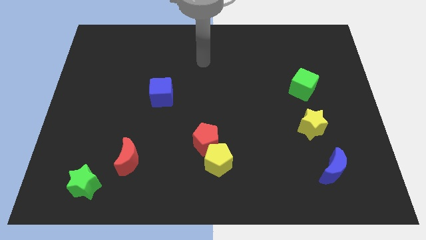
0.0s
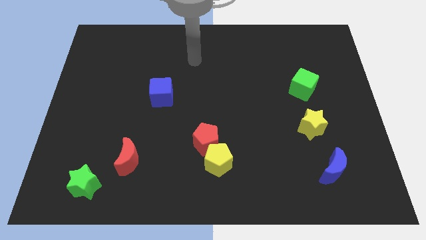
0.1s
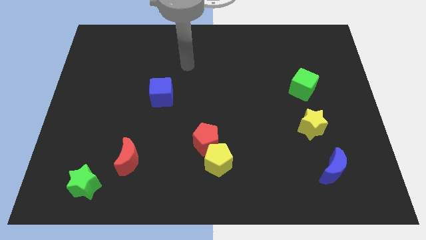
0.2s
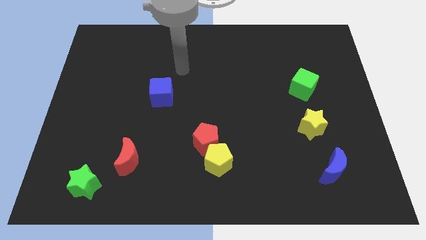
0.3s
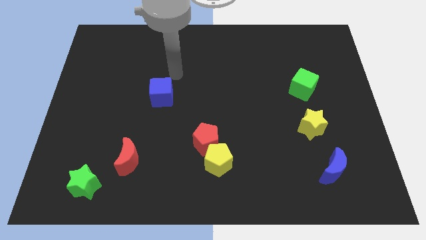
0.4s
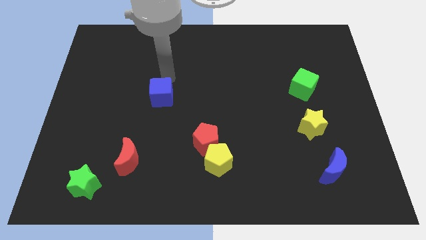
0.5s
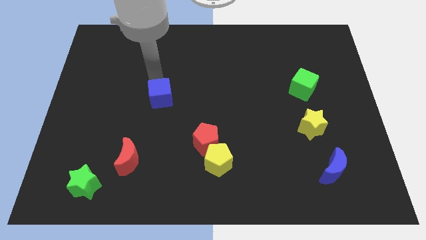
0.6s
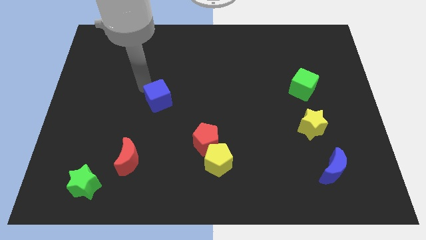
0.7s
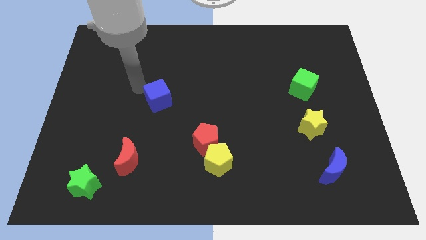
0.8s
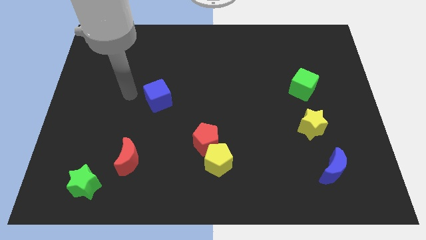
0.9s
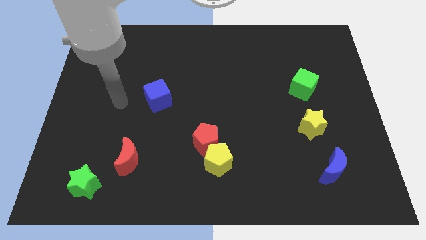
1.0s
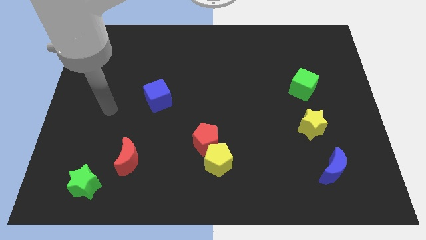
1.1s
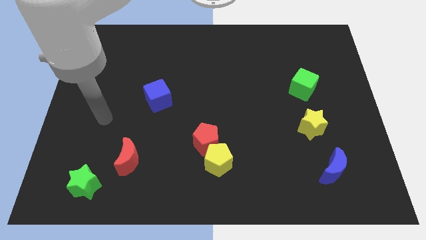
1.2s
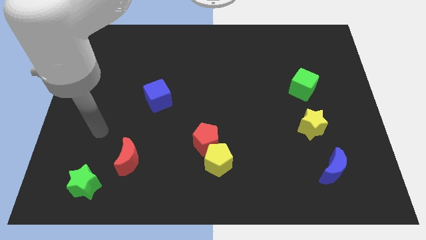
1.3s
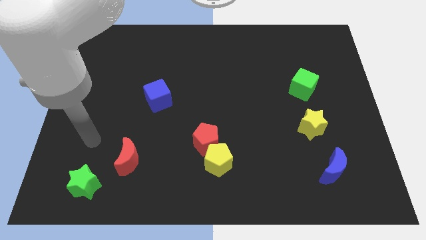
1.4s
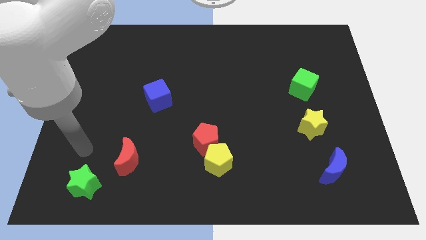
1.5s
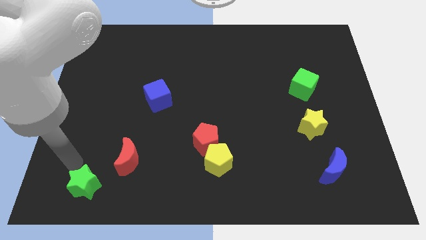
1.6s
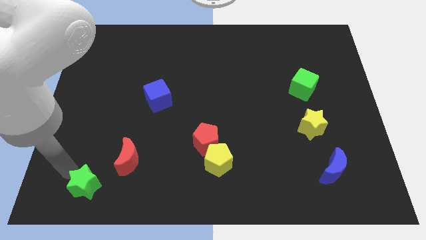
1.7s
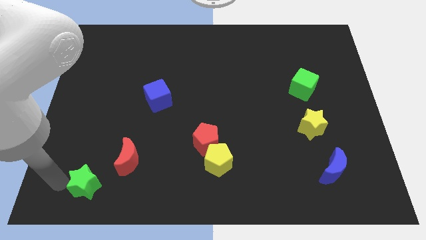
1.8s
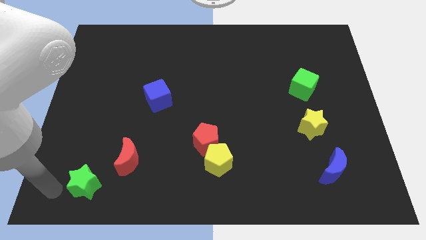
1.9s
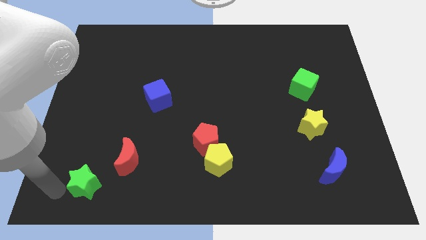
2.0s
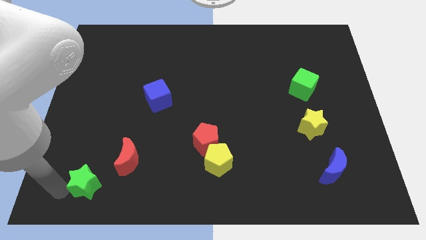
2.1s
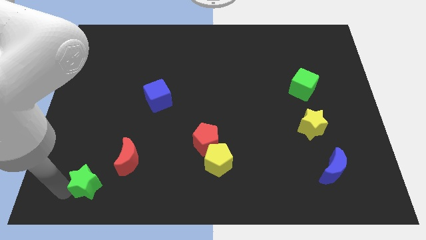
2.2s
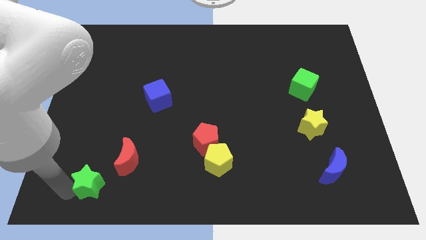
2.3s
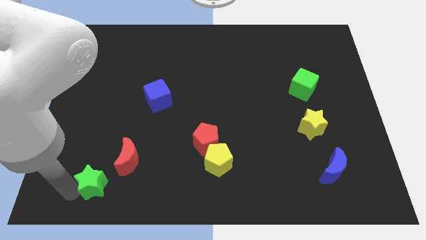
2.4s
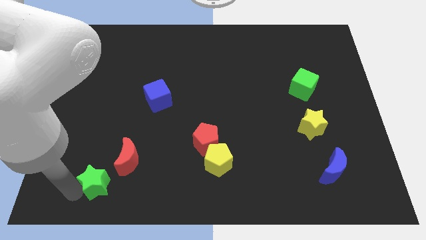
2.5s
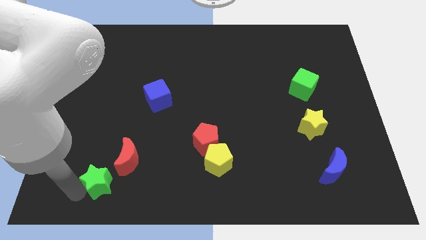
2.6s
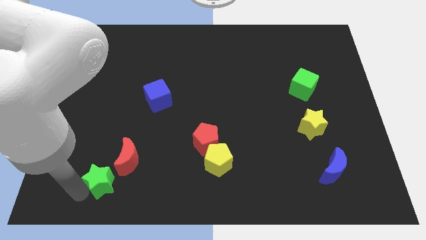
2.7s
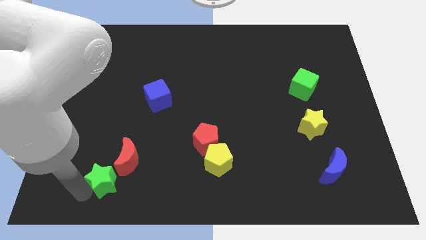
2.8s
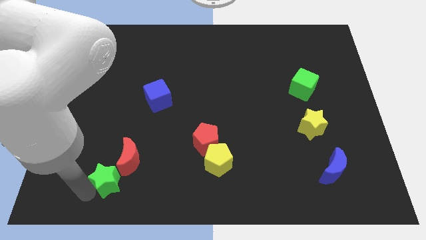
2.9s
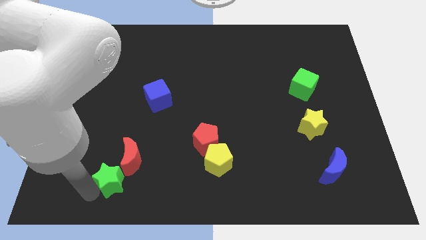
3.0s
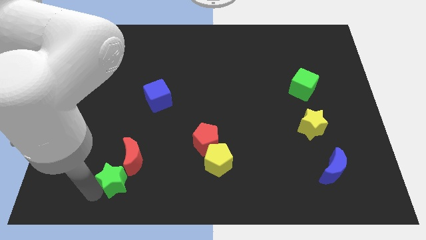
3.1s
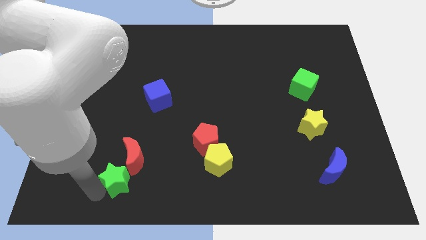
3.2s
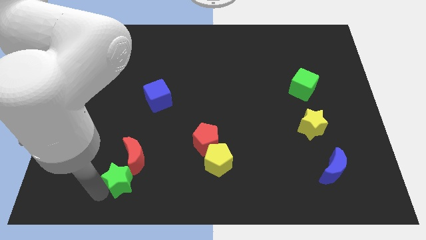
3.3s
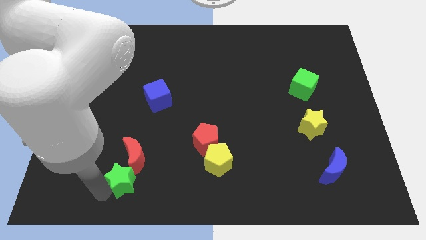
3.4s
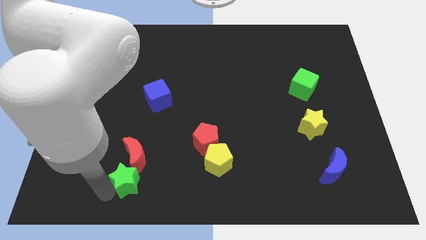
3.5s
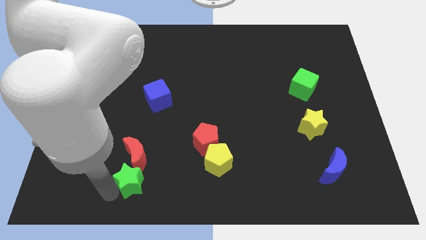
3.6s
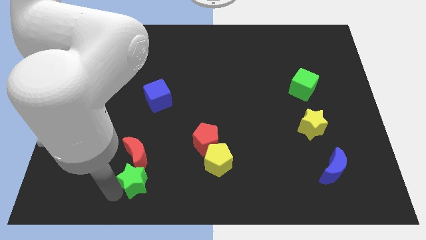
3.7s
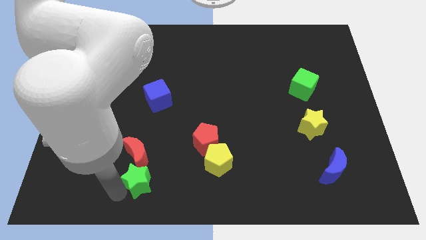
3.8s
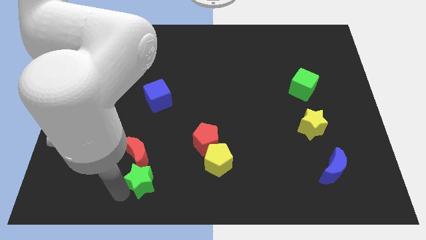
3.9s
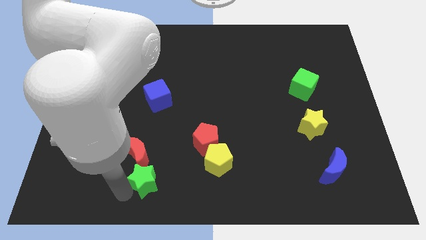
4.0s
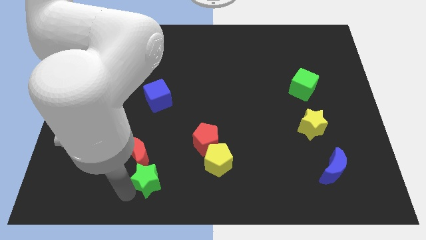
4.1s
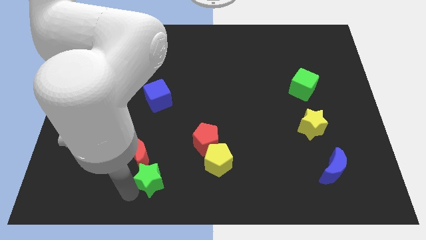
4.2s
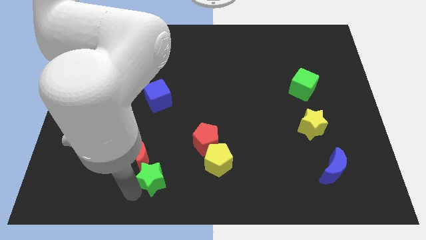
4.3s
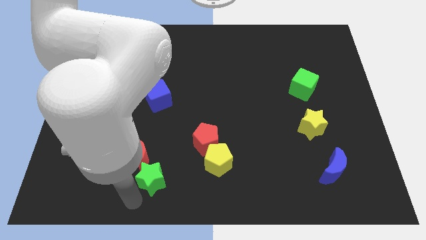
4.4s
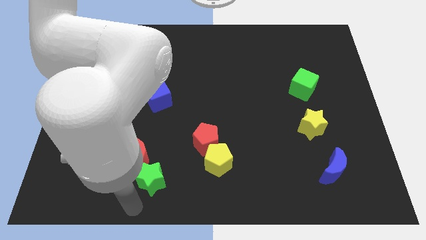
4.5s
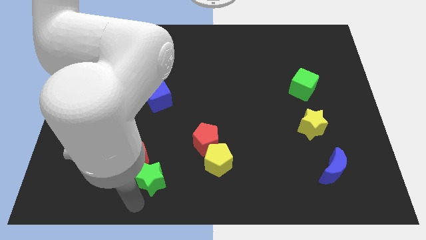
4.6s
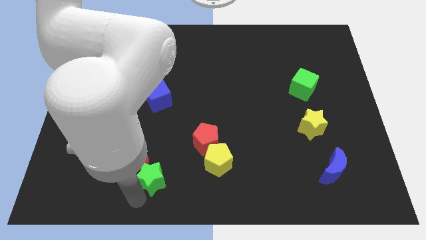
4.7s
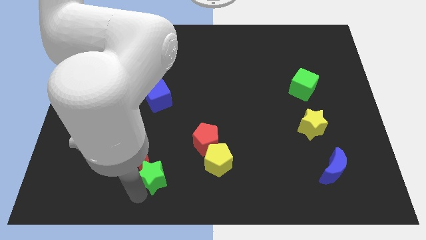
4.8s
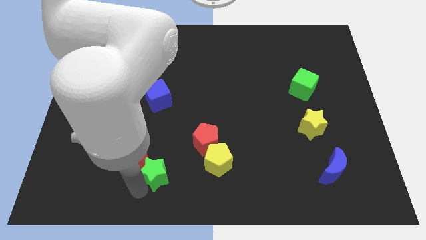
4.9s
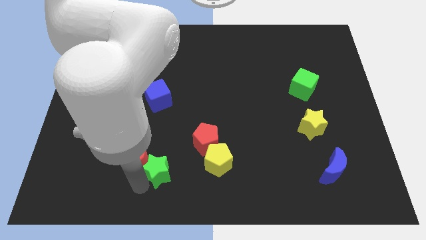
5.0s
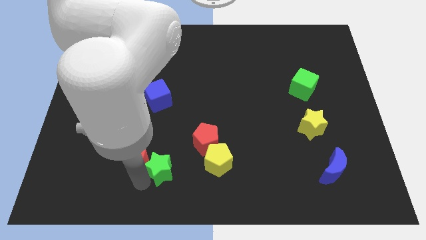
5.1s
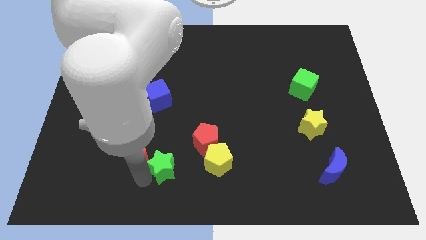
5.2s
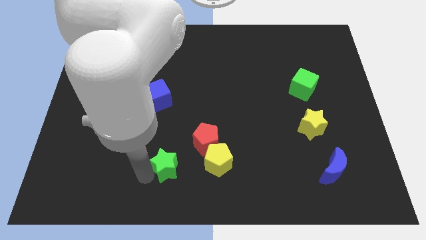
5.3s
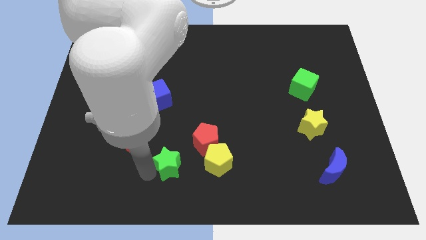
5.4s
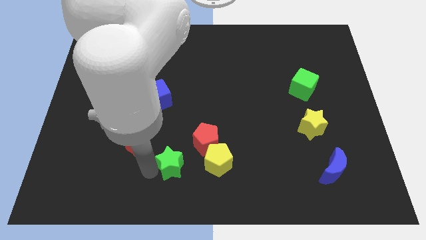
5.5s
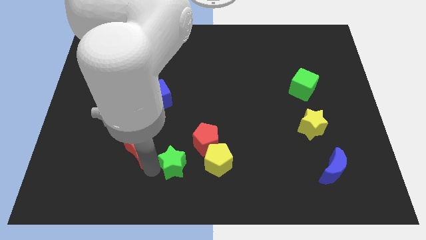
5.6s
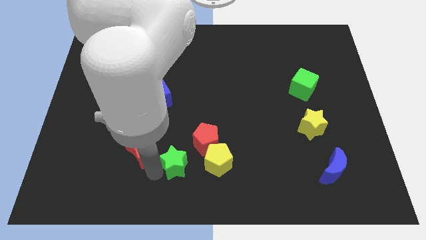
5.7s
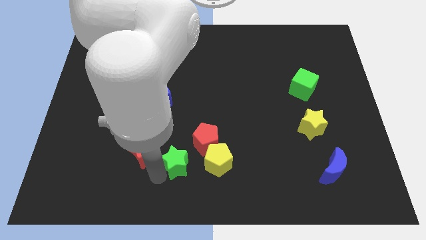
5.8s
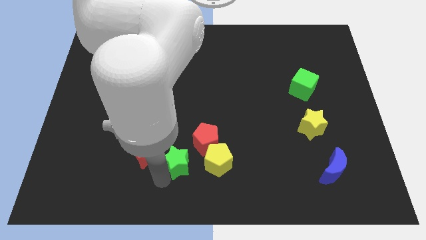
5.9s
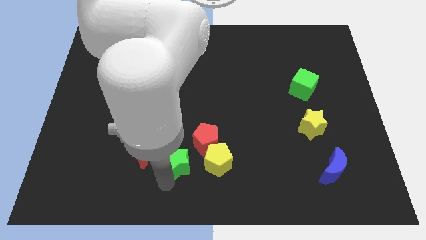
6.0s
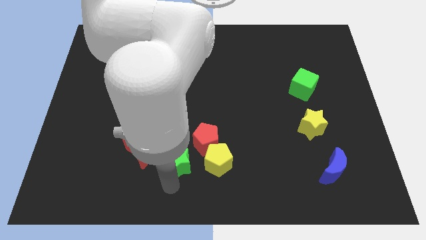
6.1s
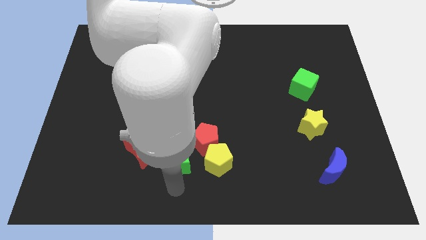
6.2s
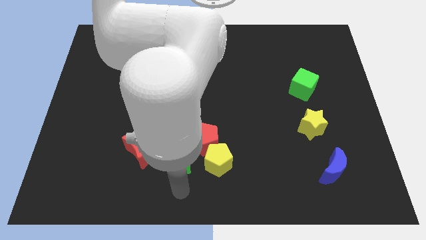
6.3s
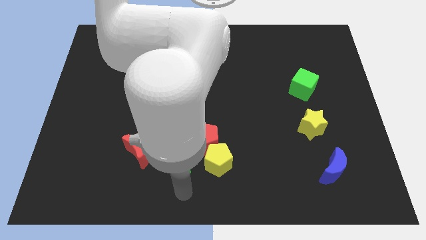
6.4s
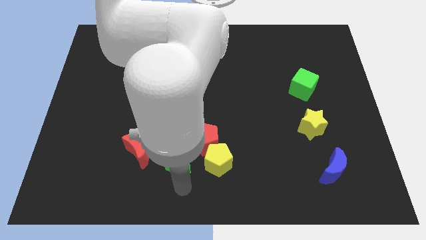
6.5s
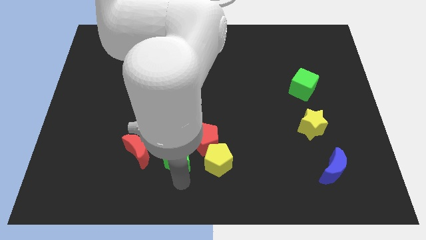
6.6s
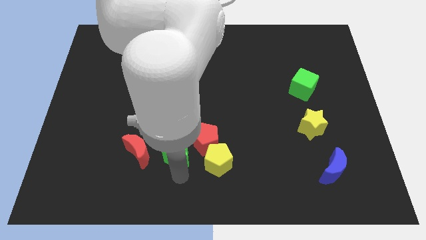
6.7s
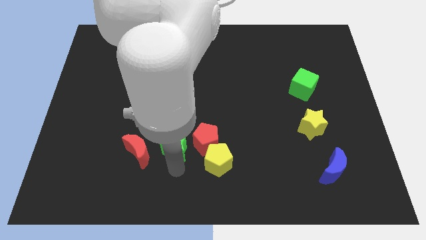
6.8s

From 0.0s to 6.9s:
move the green star to the top left side of the yellow pentagon
